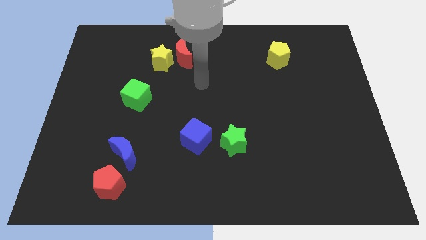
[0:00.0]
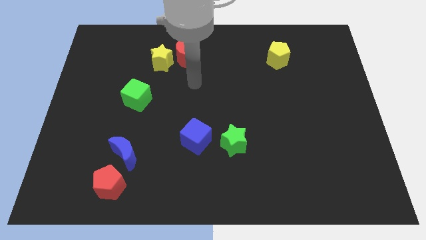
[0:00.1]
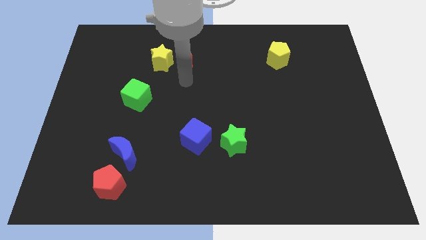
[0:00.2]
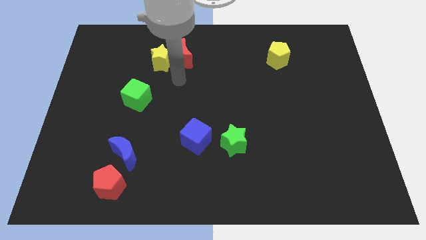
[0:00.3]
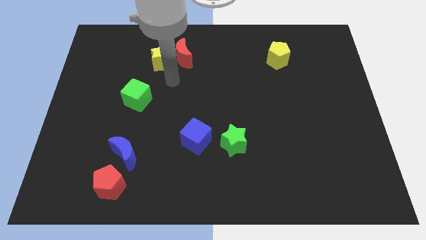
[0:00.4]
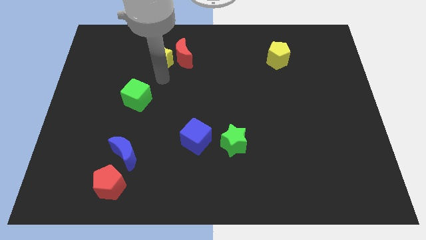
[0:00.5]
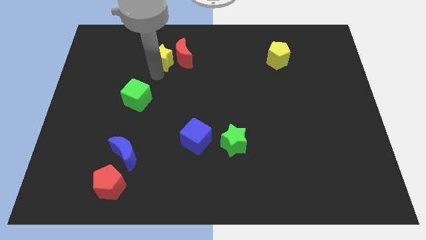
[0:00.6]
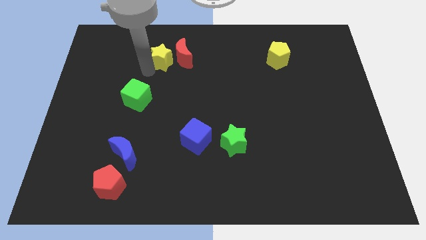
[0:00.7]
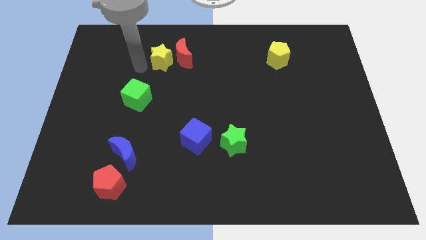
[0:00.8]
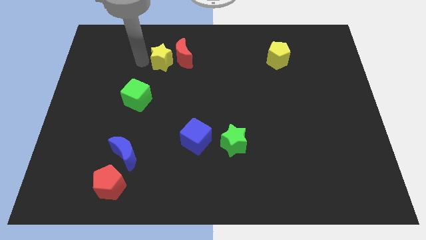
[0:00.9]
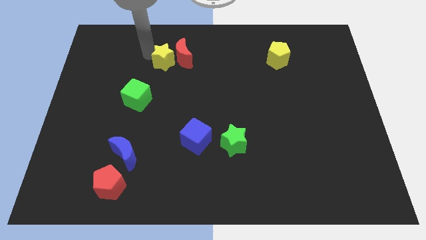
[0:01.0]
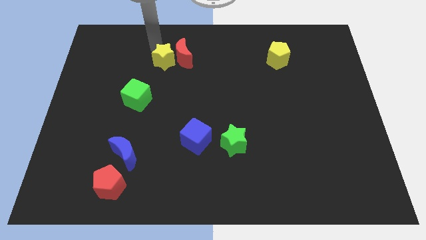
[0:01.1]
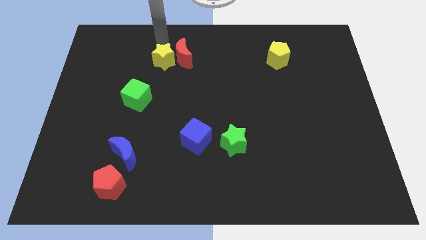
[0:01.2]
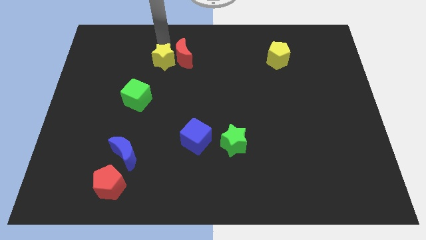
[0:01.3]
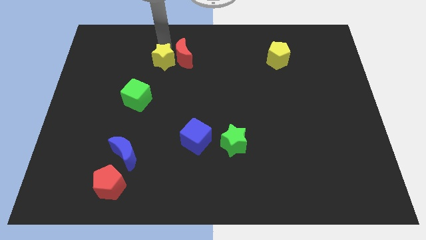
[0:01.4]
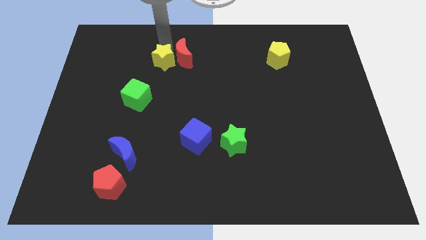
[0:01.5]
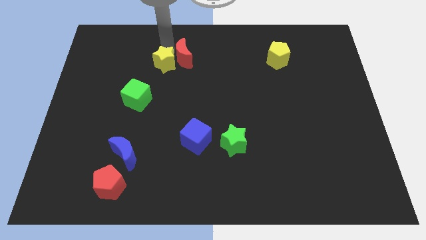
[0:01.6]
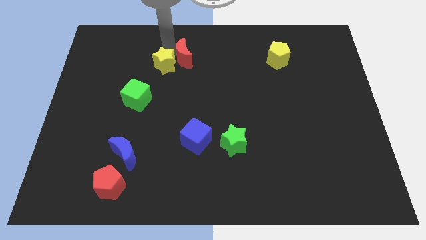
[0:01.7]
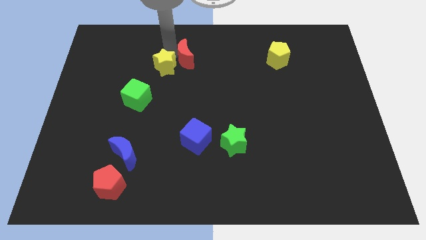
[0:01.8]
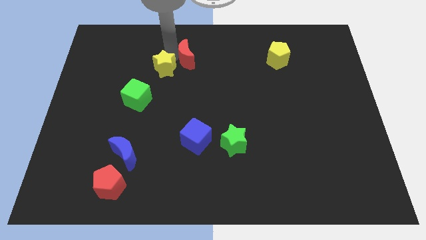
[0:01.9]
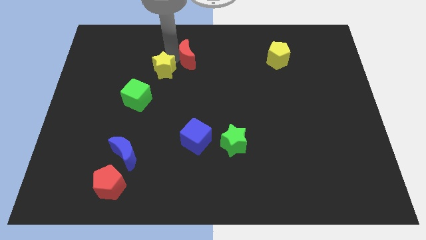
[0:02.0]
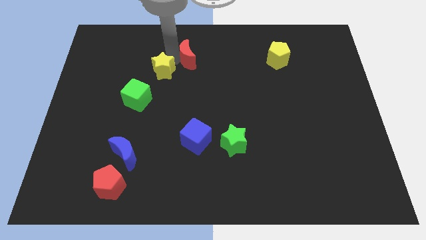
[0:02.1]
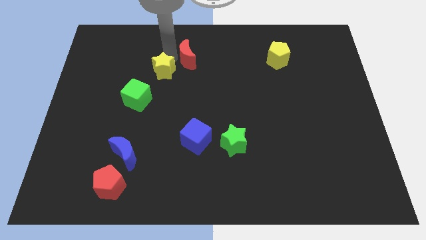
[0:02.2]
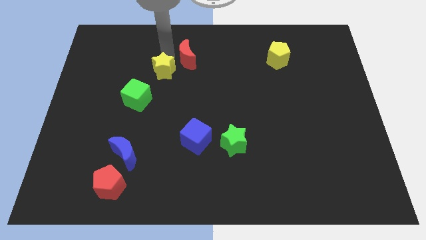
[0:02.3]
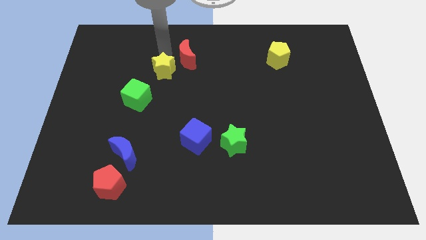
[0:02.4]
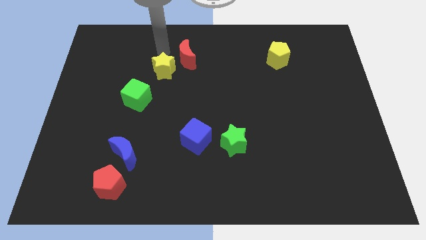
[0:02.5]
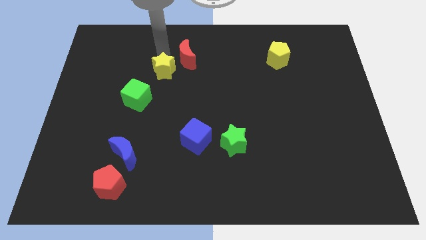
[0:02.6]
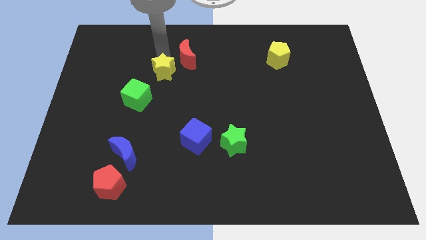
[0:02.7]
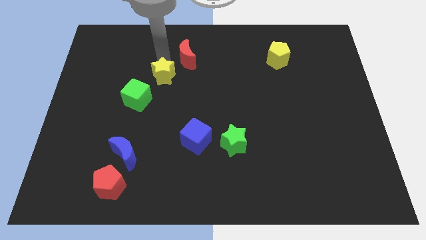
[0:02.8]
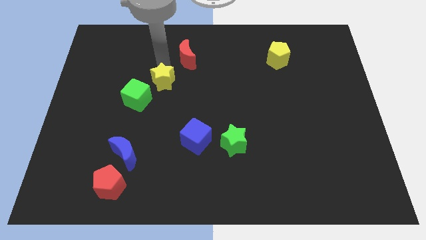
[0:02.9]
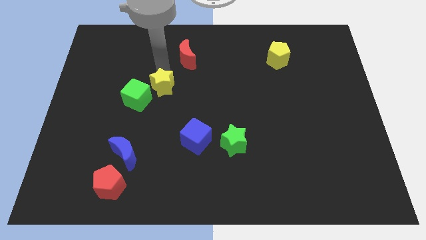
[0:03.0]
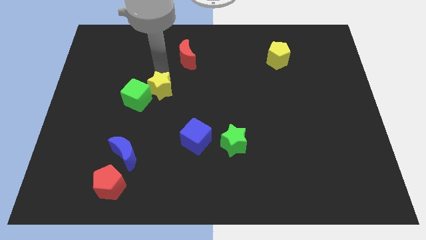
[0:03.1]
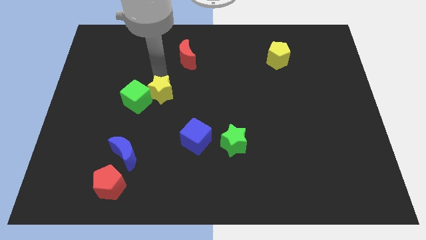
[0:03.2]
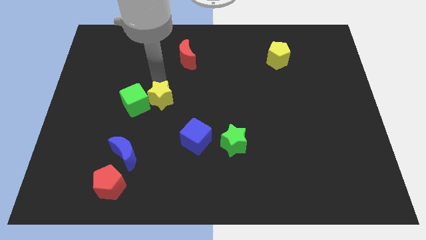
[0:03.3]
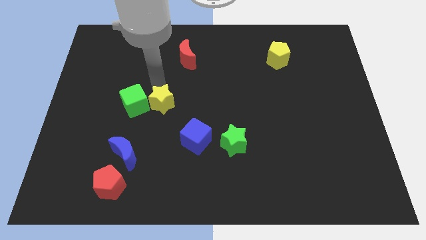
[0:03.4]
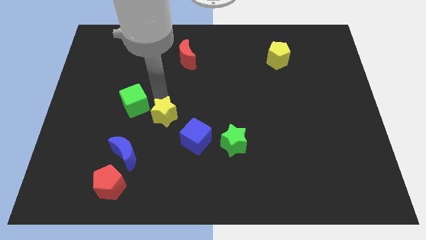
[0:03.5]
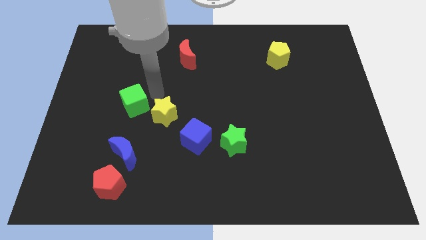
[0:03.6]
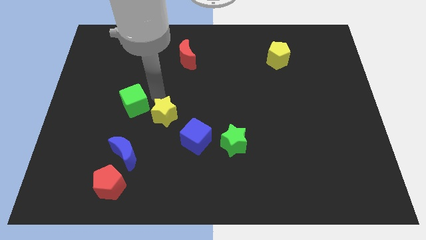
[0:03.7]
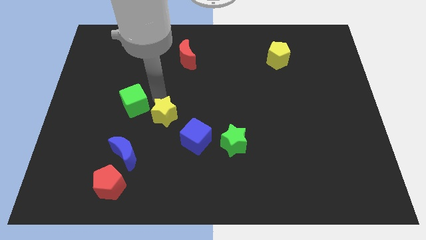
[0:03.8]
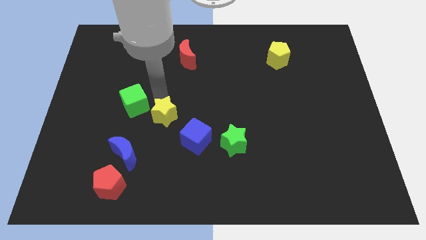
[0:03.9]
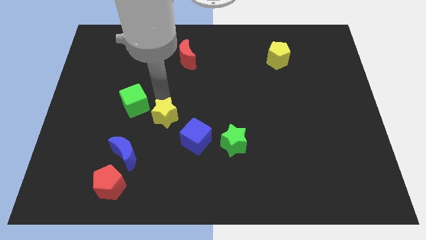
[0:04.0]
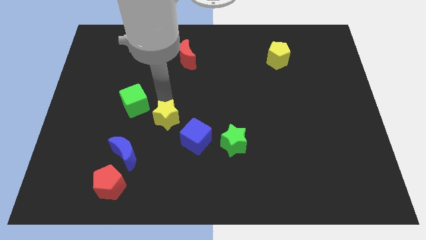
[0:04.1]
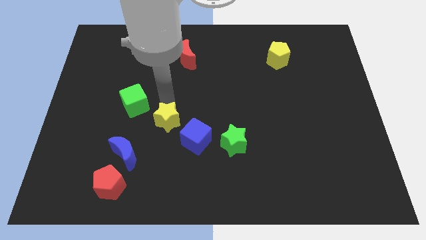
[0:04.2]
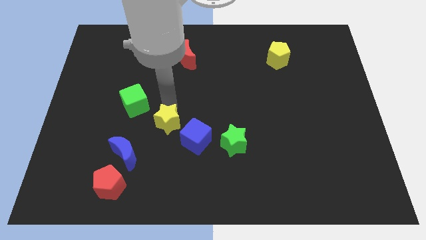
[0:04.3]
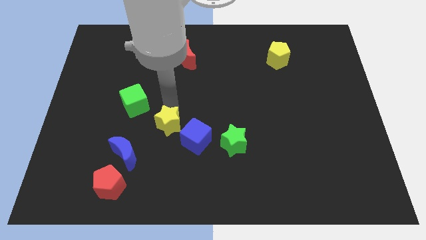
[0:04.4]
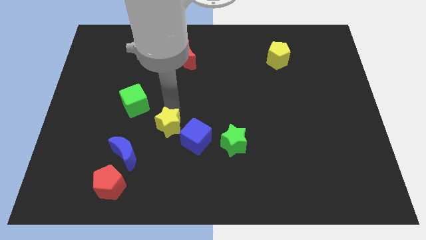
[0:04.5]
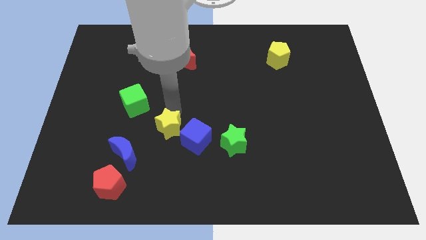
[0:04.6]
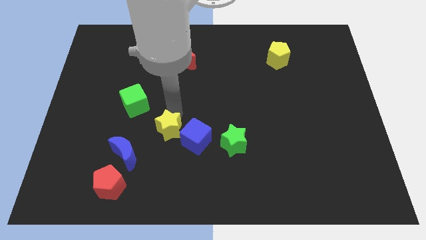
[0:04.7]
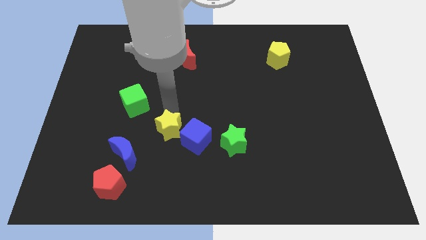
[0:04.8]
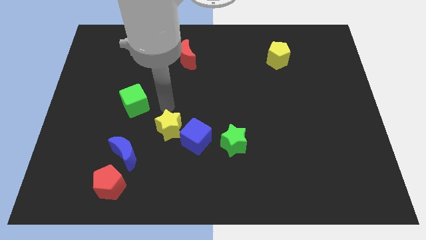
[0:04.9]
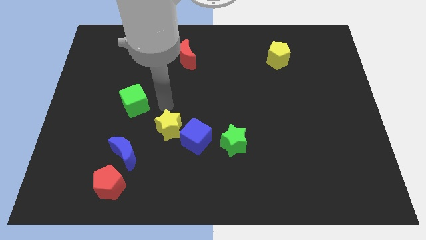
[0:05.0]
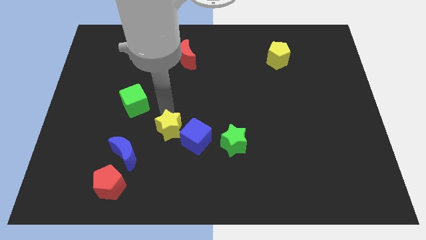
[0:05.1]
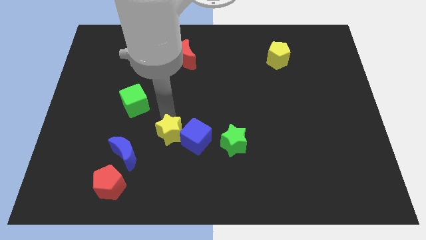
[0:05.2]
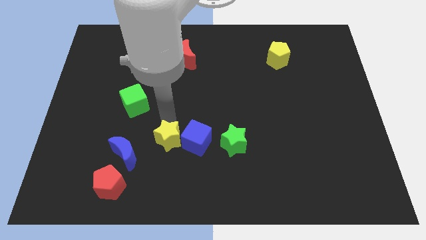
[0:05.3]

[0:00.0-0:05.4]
move the yellow star right of the blue moon

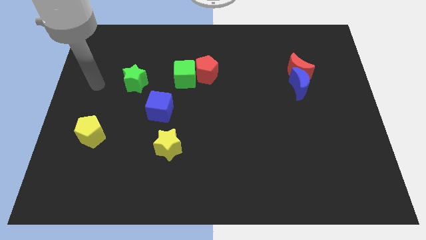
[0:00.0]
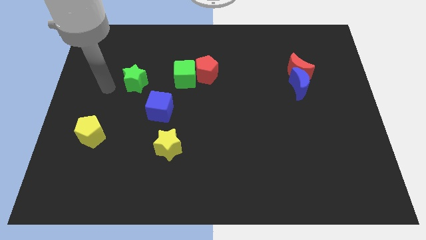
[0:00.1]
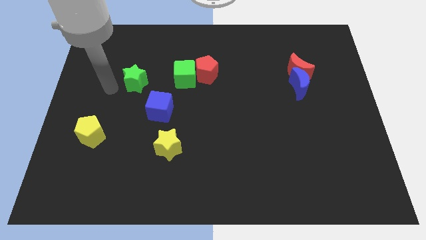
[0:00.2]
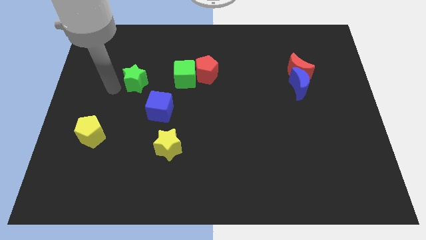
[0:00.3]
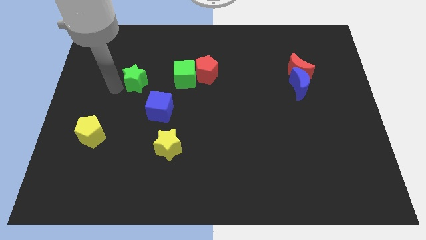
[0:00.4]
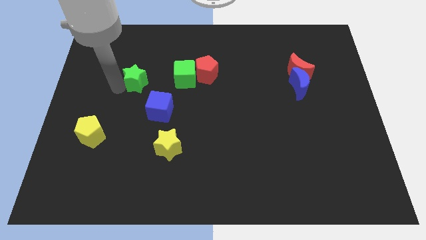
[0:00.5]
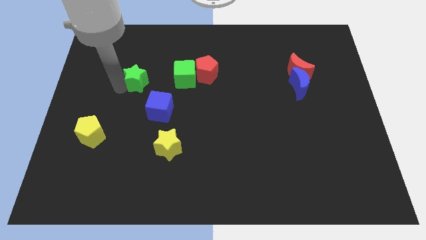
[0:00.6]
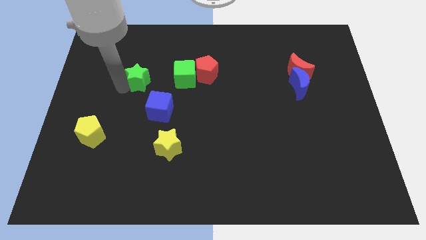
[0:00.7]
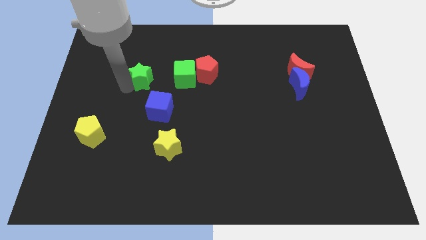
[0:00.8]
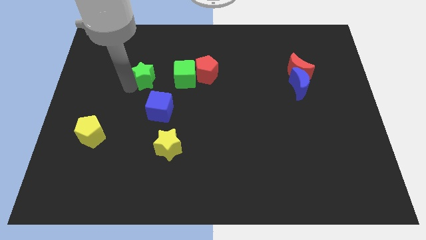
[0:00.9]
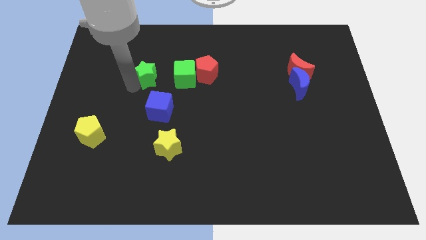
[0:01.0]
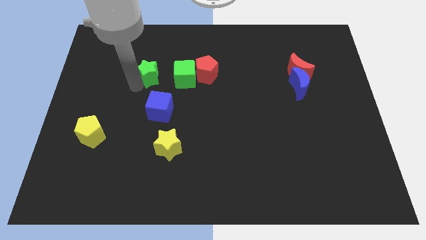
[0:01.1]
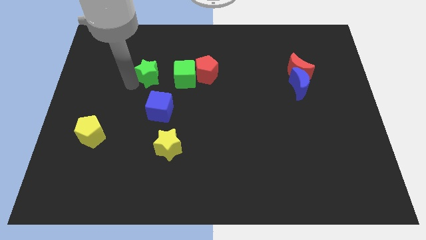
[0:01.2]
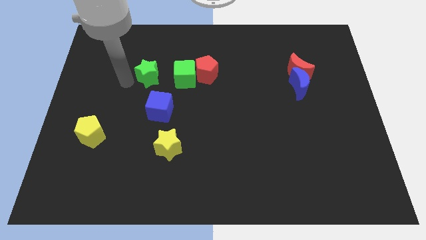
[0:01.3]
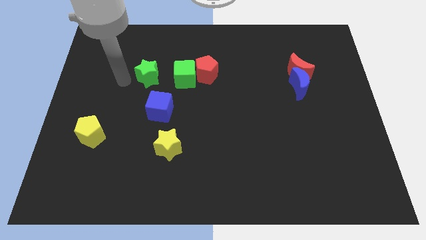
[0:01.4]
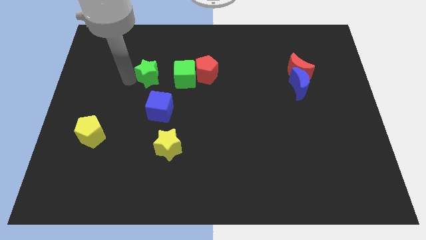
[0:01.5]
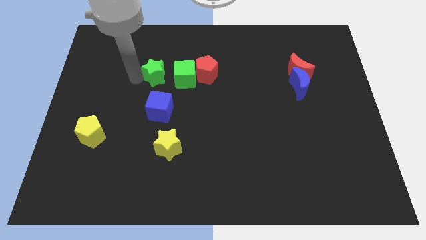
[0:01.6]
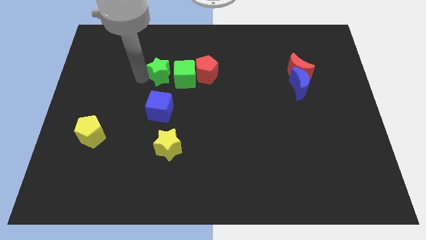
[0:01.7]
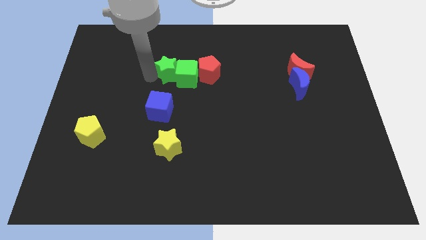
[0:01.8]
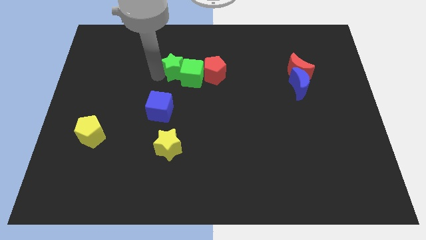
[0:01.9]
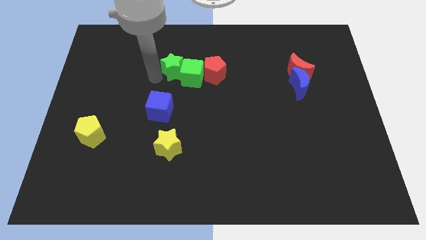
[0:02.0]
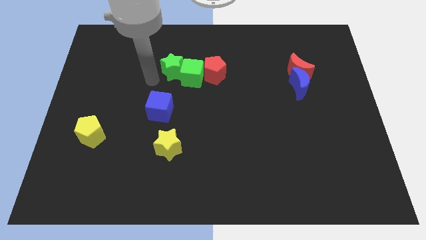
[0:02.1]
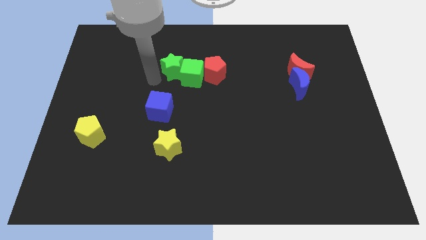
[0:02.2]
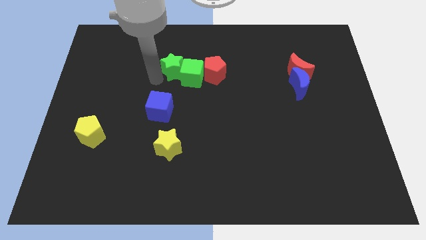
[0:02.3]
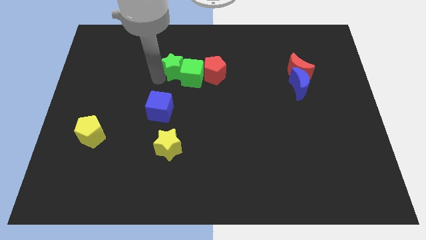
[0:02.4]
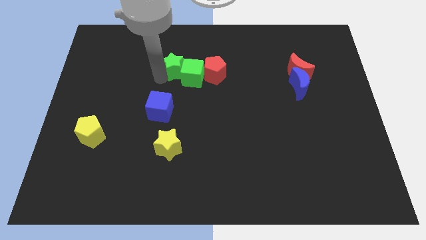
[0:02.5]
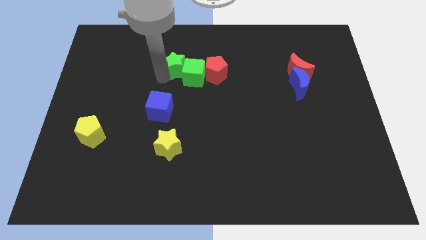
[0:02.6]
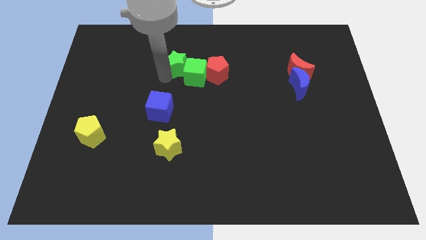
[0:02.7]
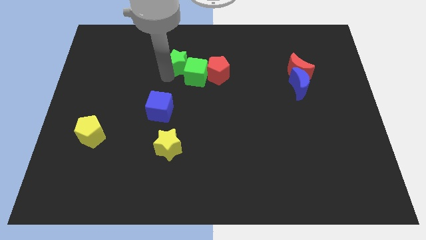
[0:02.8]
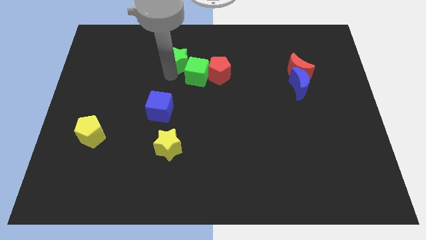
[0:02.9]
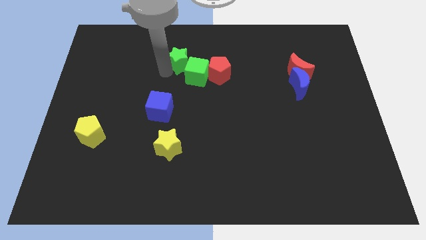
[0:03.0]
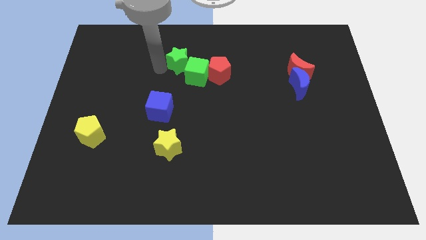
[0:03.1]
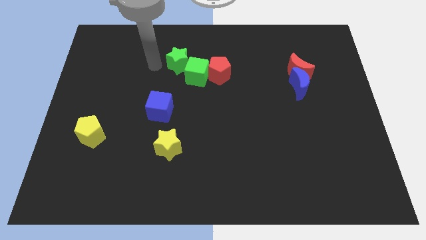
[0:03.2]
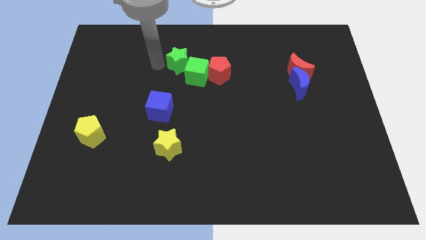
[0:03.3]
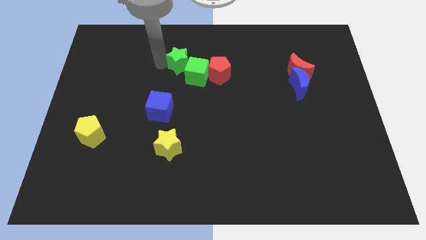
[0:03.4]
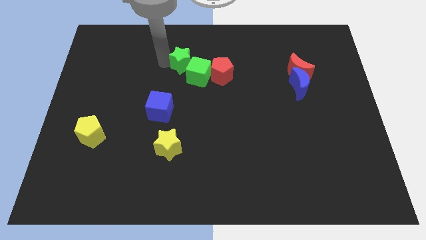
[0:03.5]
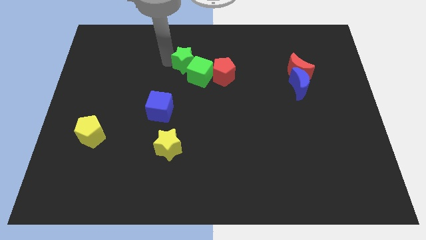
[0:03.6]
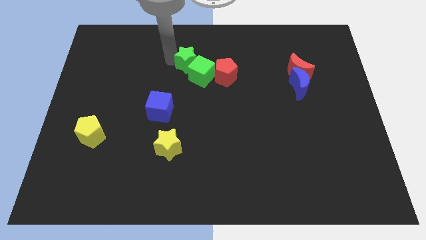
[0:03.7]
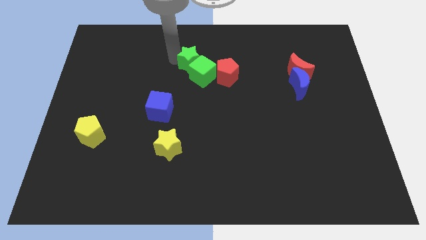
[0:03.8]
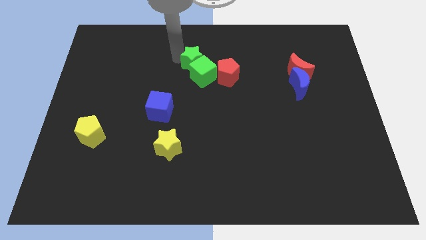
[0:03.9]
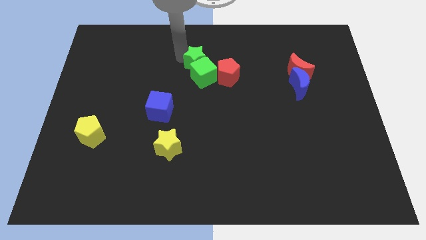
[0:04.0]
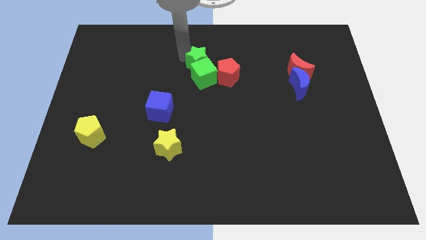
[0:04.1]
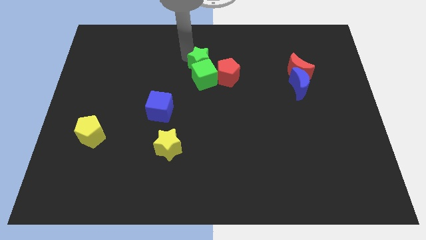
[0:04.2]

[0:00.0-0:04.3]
put the green star to the top right side of the green cube
